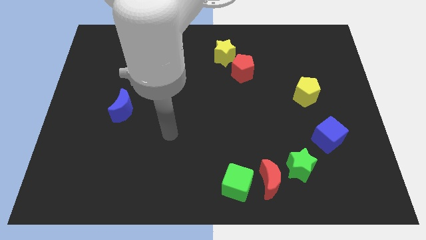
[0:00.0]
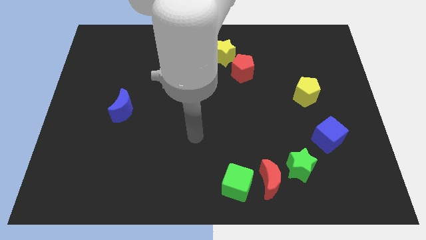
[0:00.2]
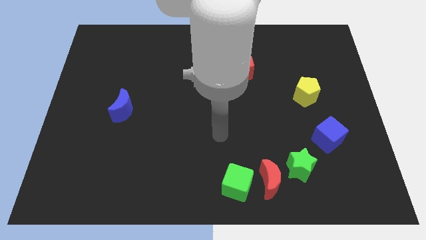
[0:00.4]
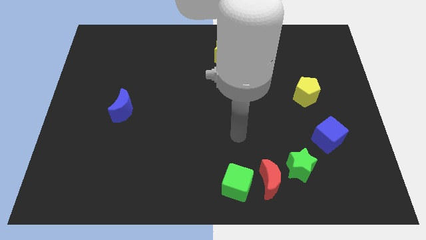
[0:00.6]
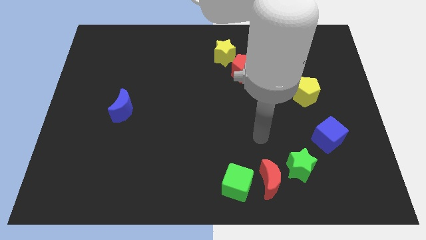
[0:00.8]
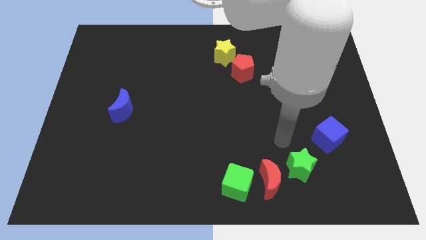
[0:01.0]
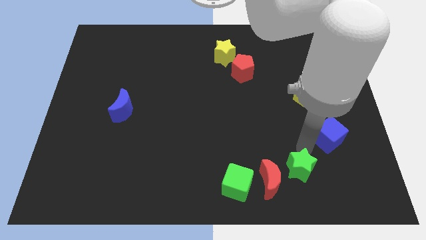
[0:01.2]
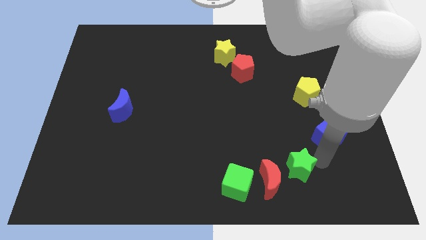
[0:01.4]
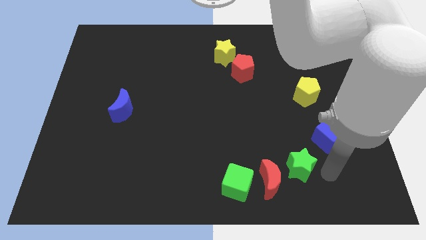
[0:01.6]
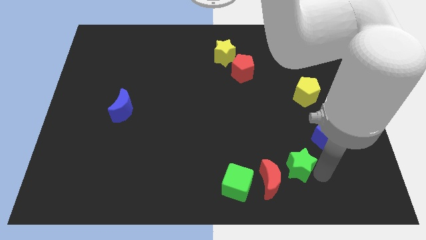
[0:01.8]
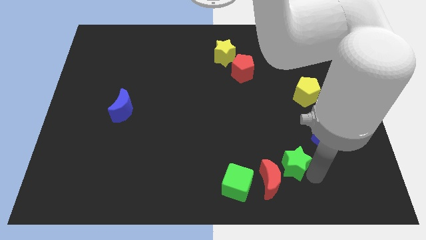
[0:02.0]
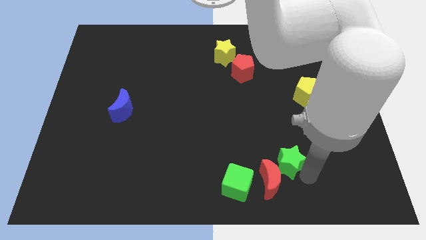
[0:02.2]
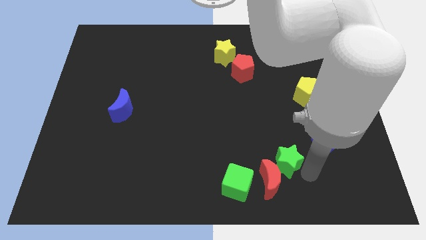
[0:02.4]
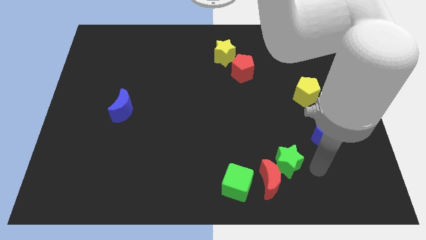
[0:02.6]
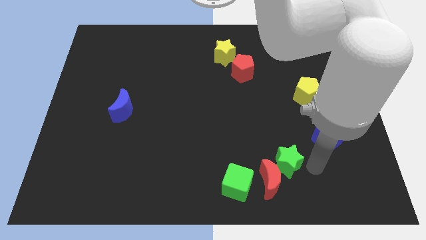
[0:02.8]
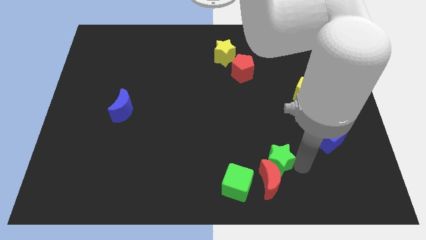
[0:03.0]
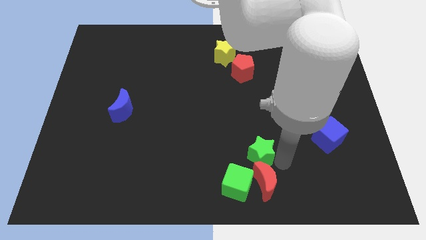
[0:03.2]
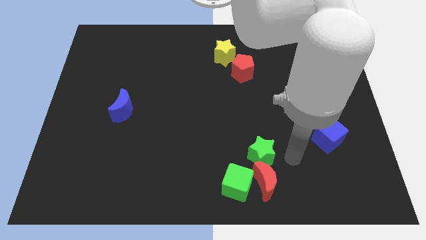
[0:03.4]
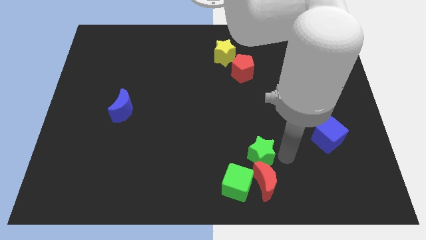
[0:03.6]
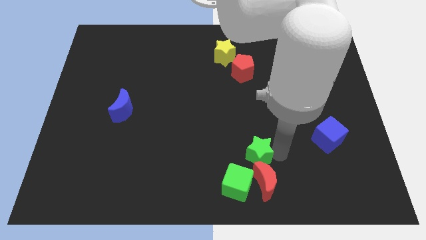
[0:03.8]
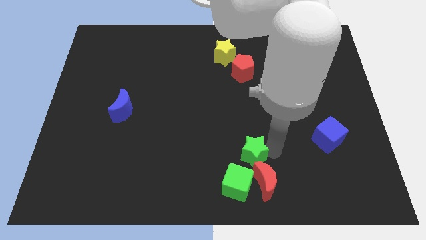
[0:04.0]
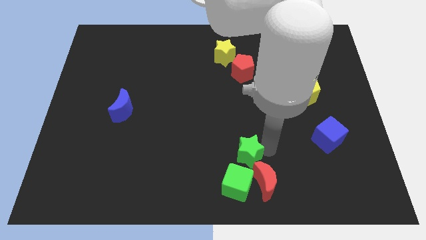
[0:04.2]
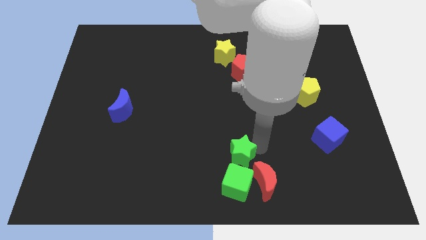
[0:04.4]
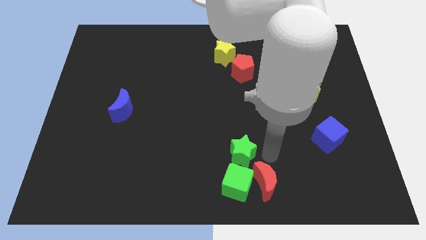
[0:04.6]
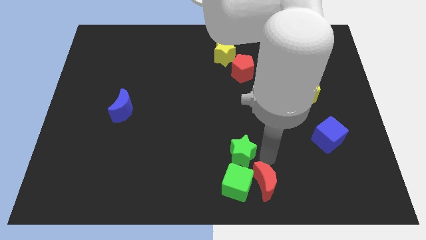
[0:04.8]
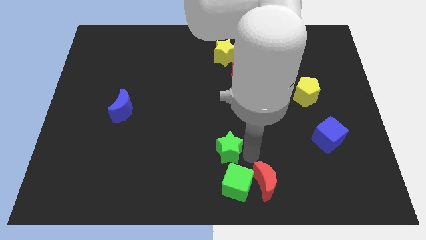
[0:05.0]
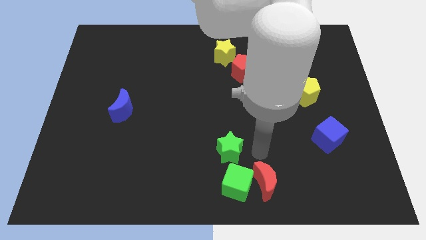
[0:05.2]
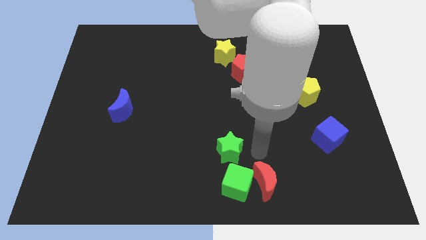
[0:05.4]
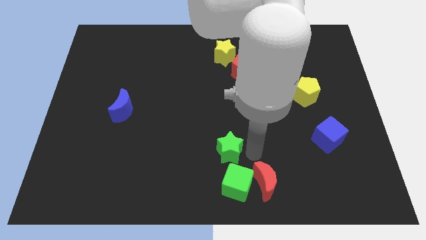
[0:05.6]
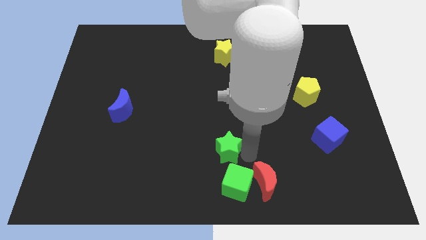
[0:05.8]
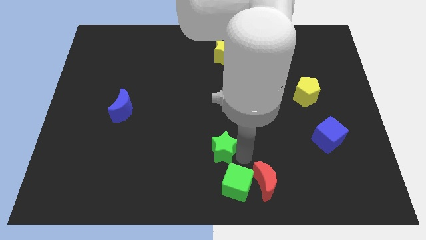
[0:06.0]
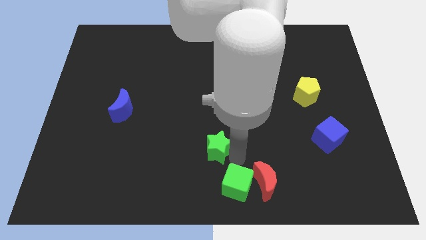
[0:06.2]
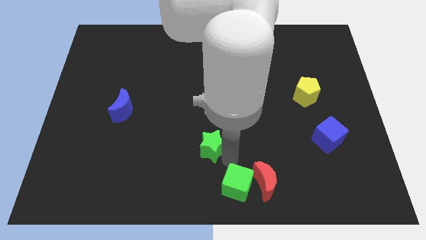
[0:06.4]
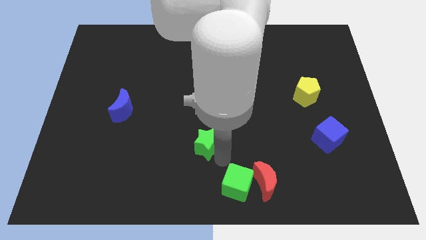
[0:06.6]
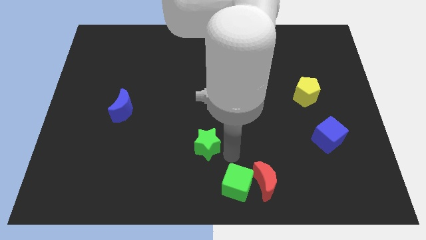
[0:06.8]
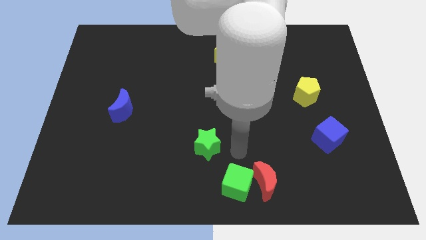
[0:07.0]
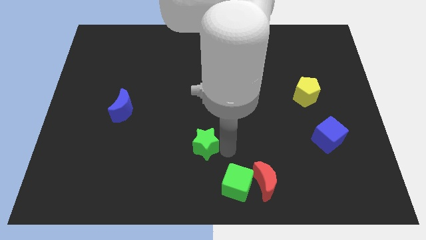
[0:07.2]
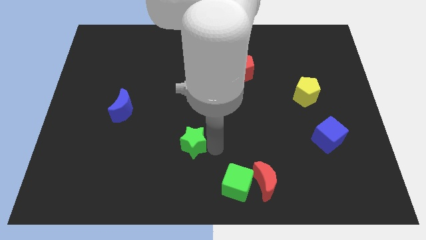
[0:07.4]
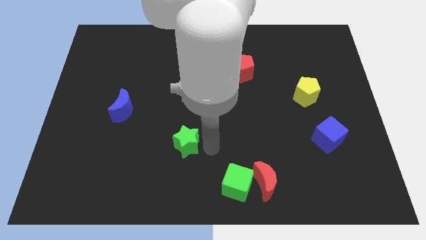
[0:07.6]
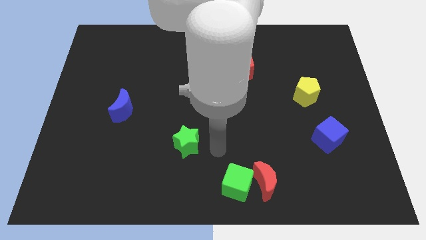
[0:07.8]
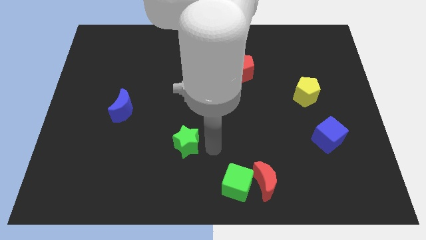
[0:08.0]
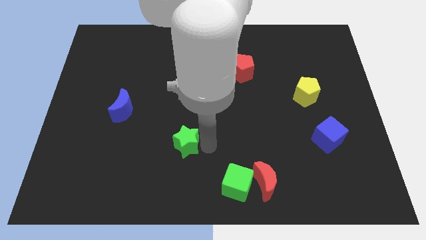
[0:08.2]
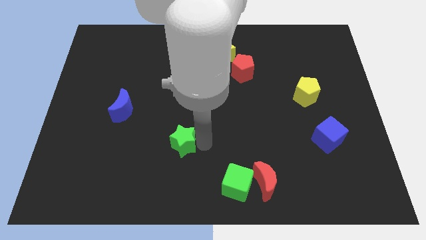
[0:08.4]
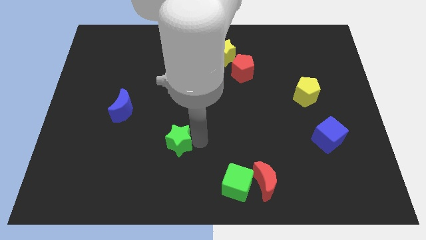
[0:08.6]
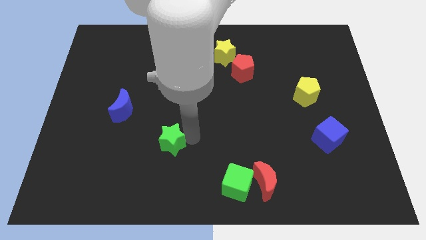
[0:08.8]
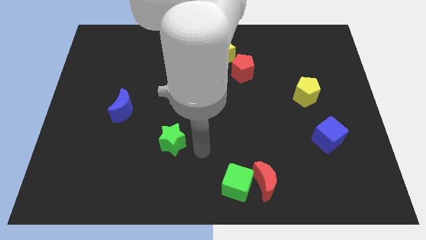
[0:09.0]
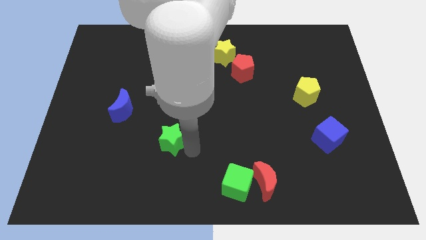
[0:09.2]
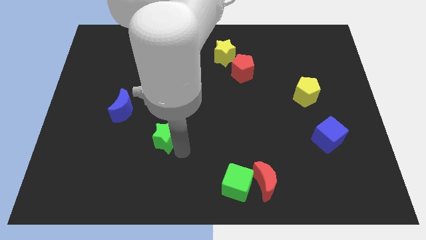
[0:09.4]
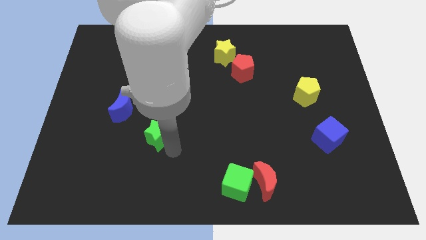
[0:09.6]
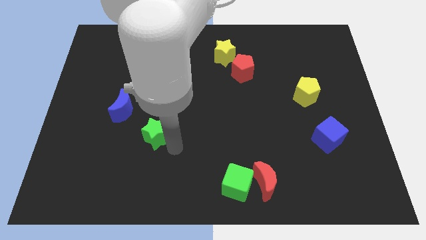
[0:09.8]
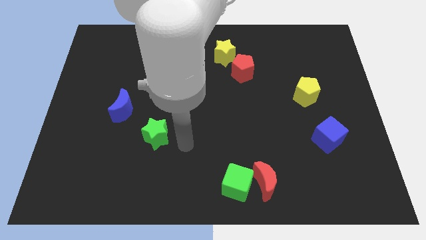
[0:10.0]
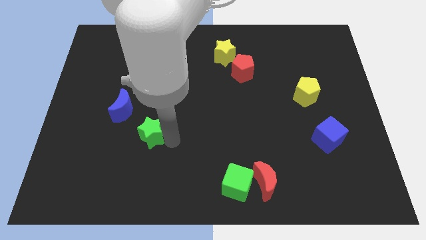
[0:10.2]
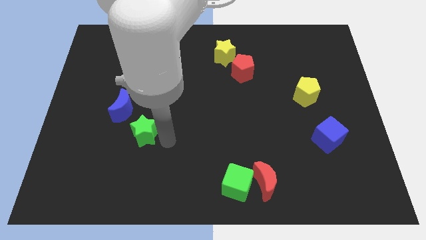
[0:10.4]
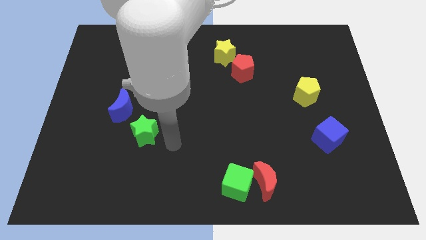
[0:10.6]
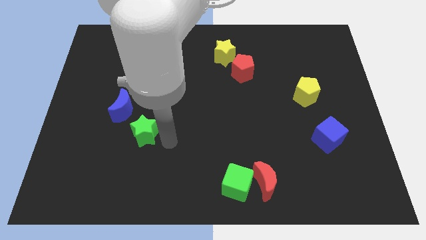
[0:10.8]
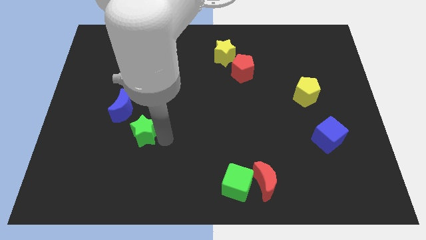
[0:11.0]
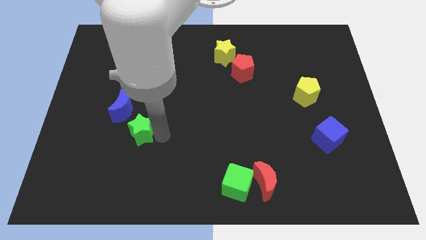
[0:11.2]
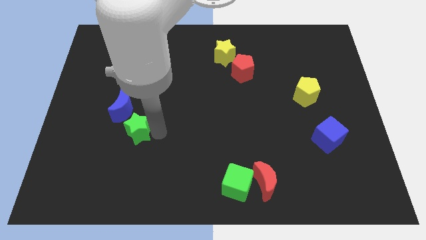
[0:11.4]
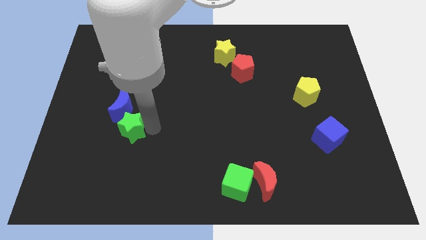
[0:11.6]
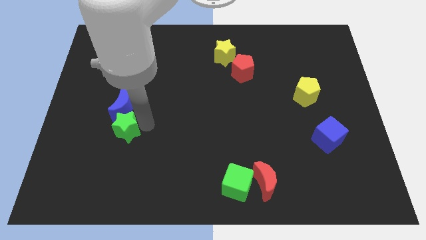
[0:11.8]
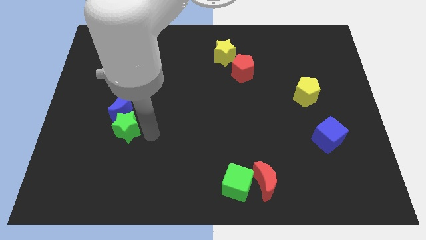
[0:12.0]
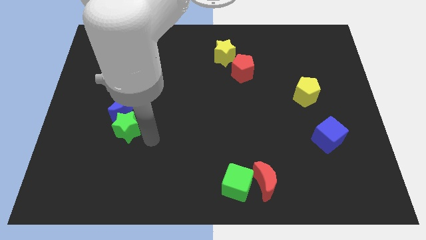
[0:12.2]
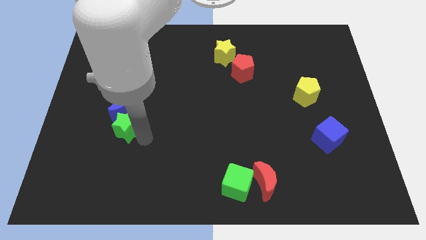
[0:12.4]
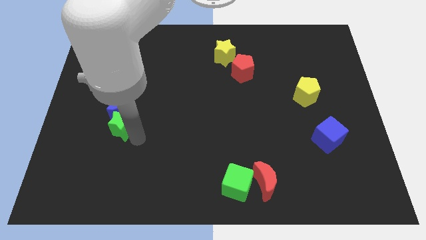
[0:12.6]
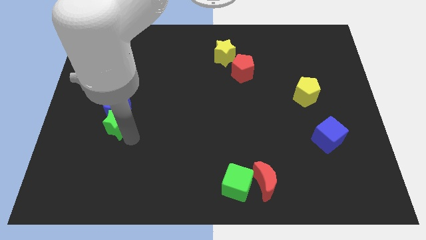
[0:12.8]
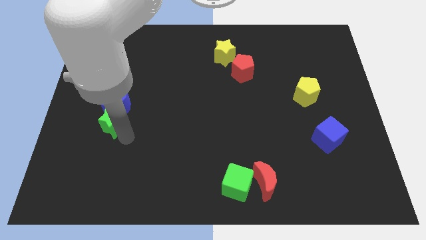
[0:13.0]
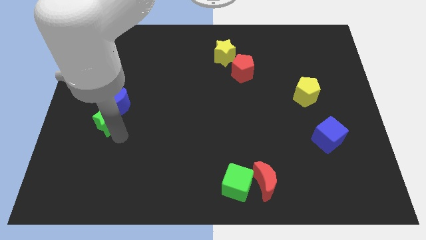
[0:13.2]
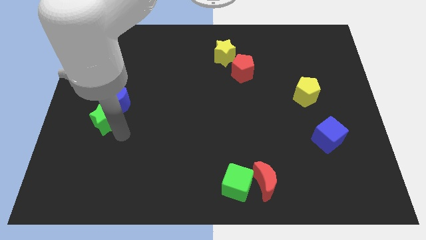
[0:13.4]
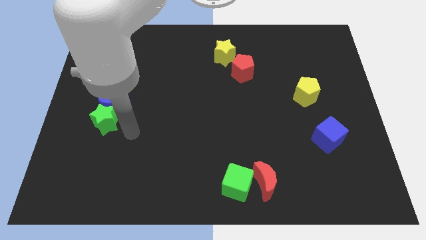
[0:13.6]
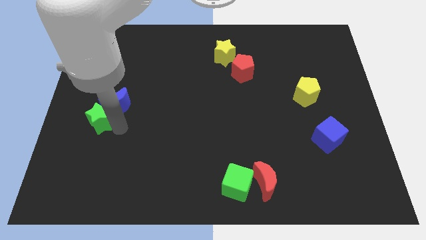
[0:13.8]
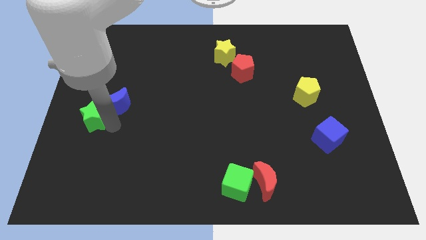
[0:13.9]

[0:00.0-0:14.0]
push the green star to the left side
